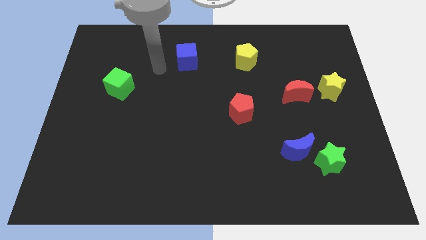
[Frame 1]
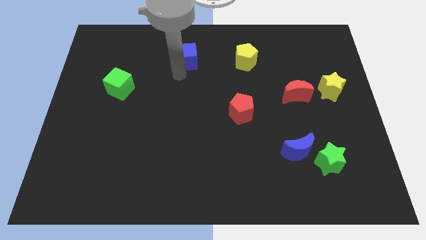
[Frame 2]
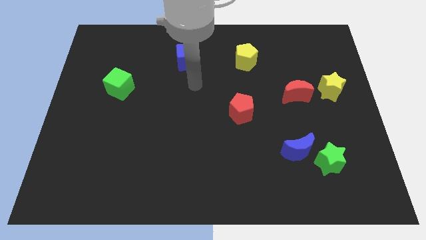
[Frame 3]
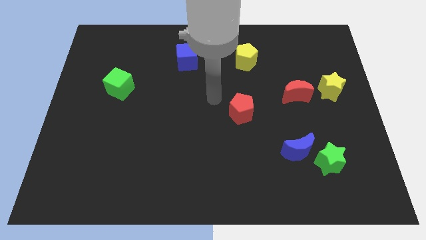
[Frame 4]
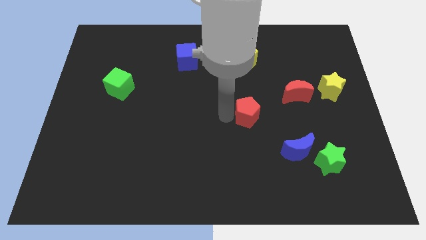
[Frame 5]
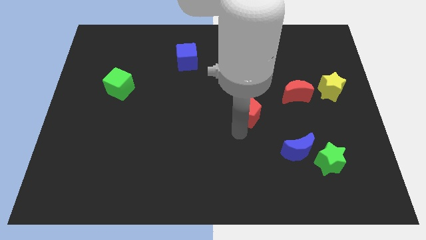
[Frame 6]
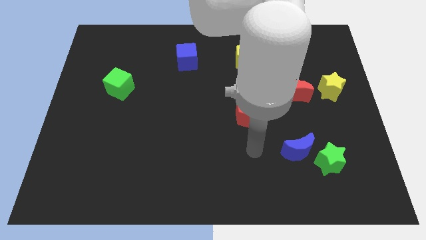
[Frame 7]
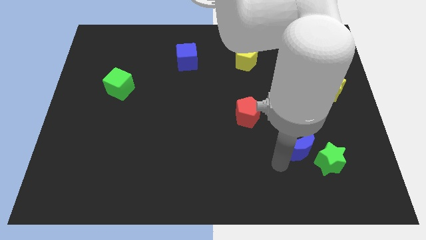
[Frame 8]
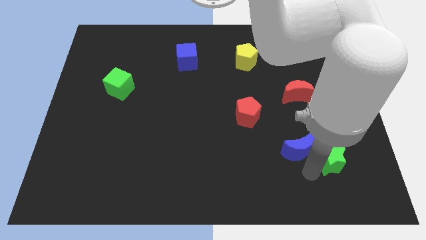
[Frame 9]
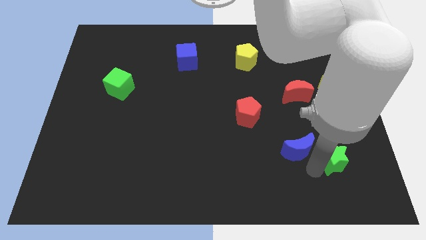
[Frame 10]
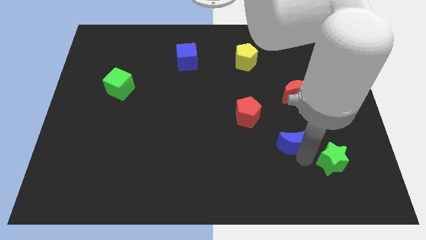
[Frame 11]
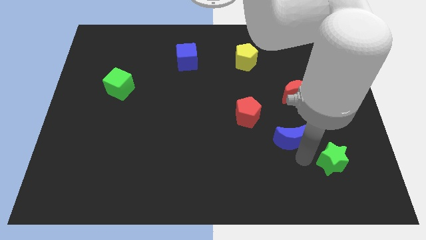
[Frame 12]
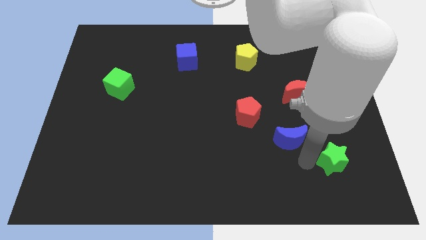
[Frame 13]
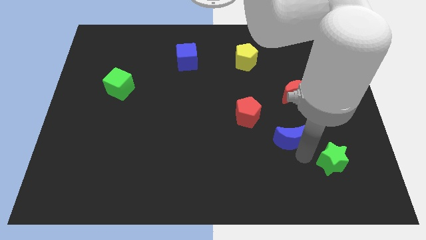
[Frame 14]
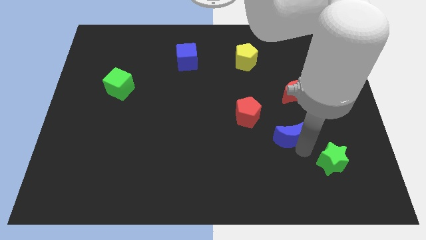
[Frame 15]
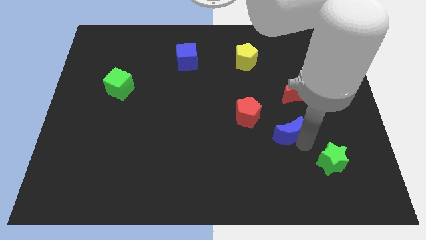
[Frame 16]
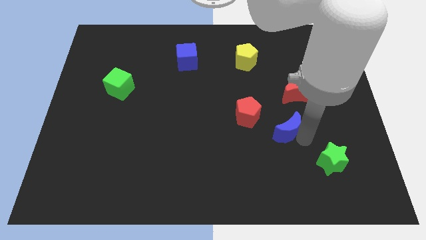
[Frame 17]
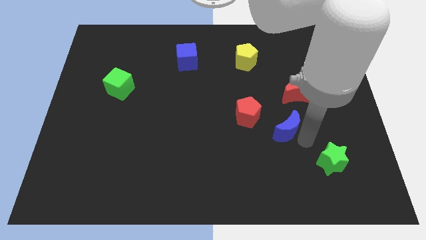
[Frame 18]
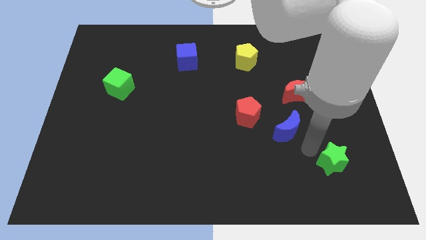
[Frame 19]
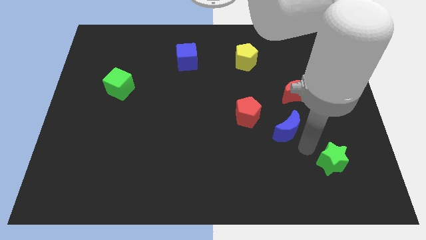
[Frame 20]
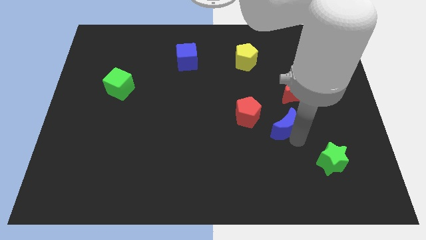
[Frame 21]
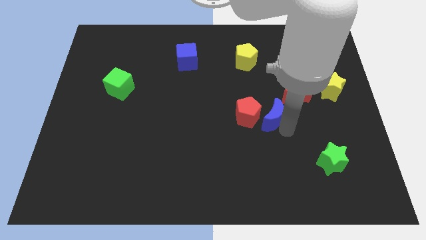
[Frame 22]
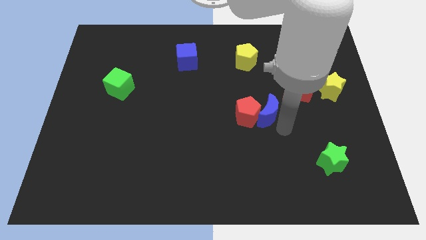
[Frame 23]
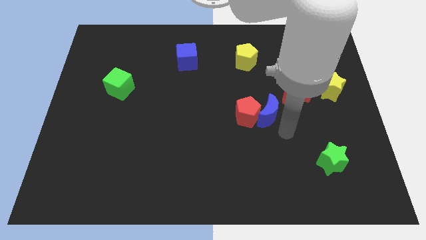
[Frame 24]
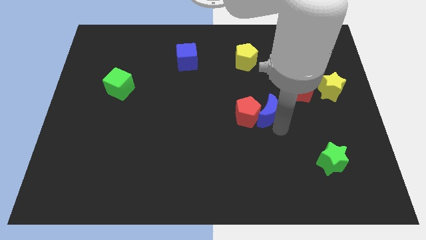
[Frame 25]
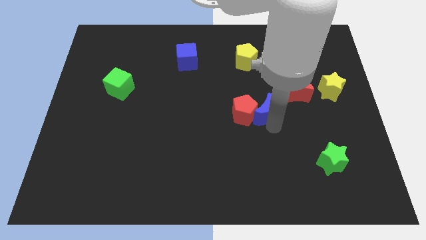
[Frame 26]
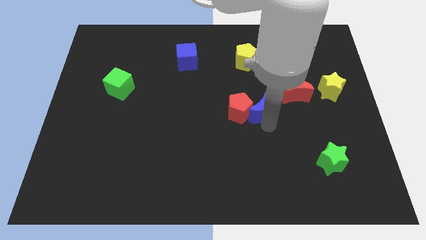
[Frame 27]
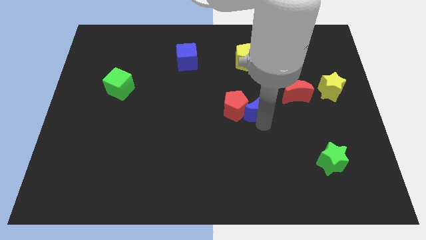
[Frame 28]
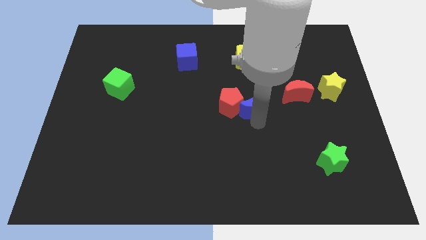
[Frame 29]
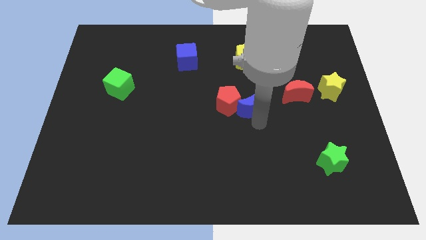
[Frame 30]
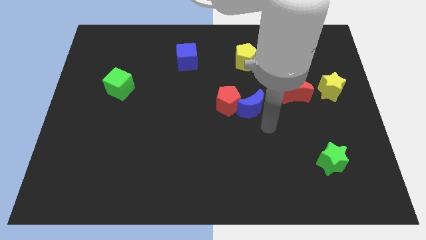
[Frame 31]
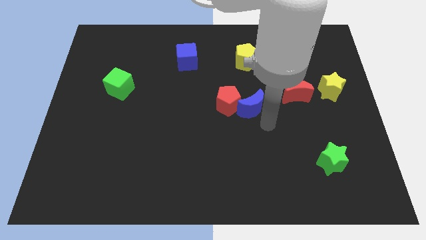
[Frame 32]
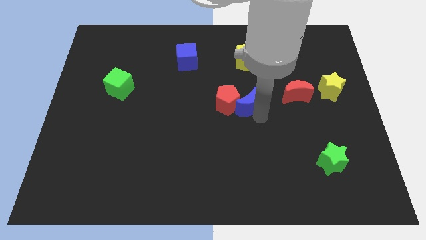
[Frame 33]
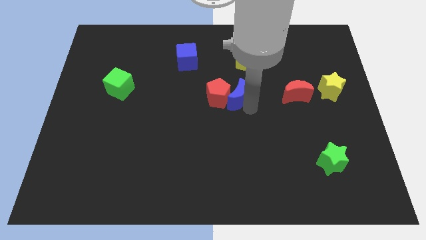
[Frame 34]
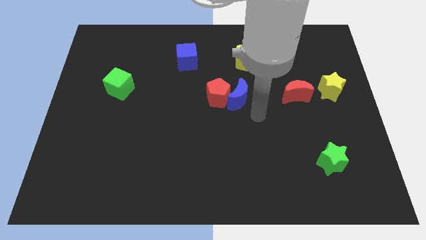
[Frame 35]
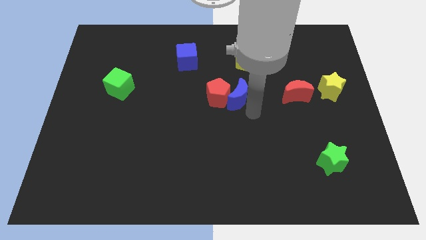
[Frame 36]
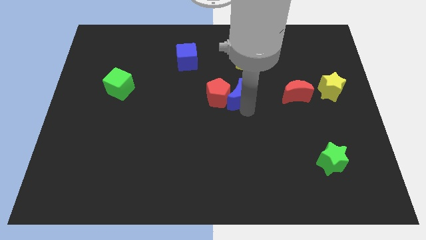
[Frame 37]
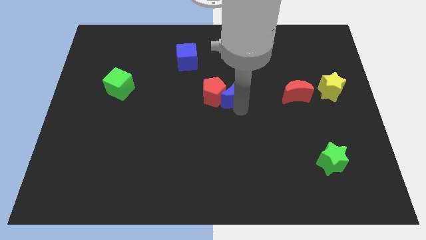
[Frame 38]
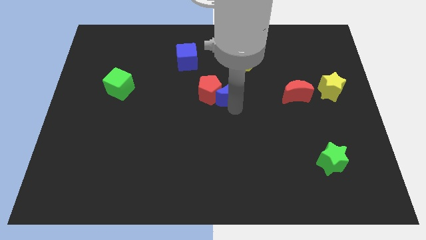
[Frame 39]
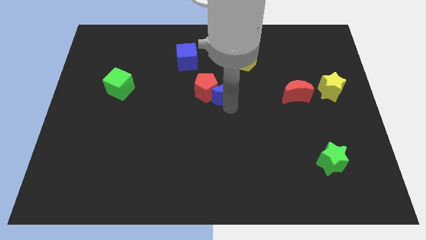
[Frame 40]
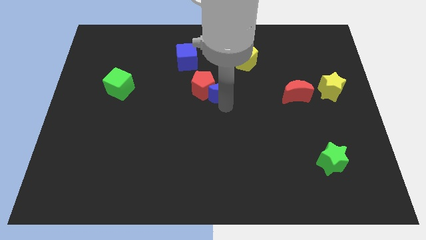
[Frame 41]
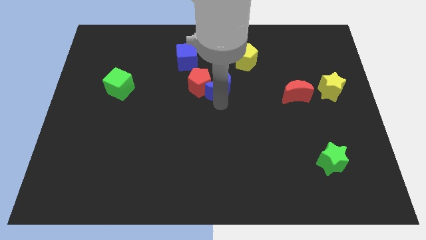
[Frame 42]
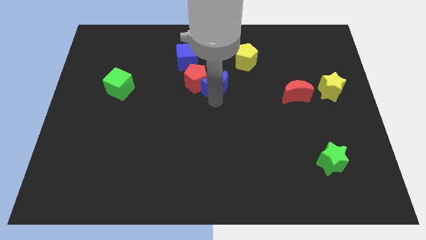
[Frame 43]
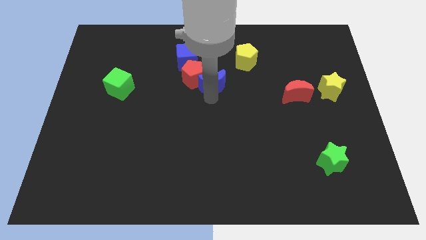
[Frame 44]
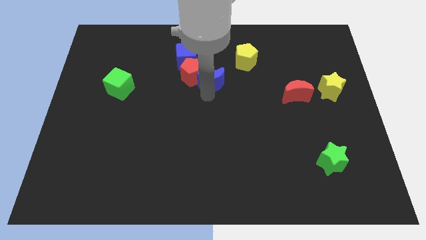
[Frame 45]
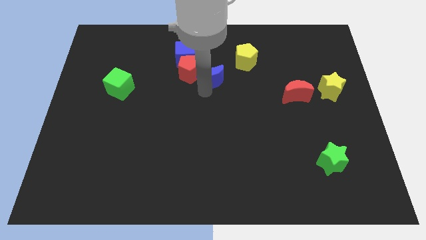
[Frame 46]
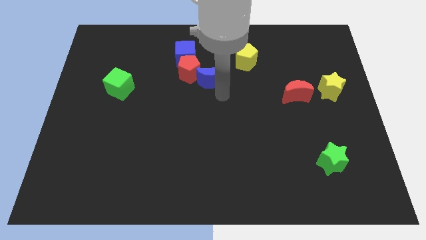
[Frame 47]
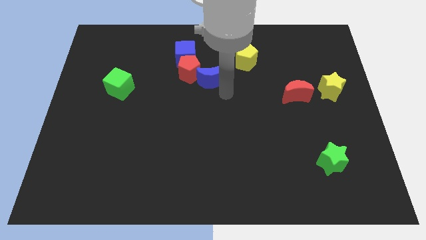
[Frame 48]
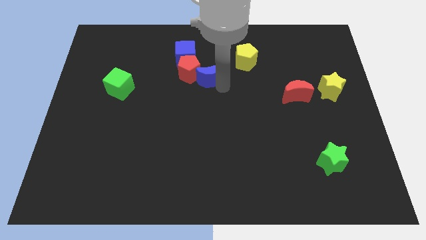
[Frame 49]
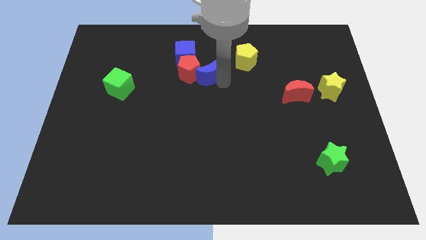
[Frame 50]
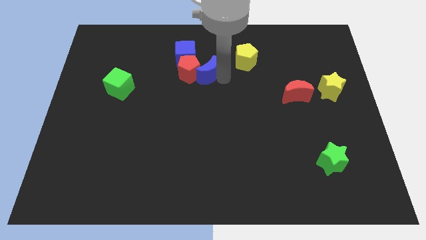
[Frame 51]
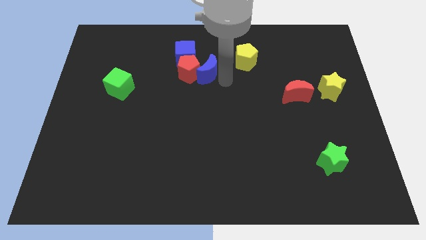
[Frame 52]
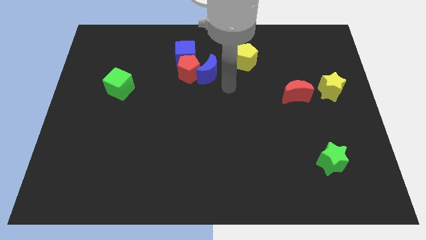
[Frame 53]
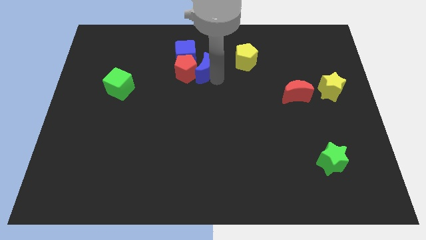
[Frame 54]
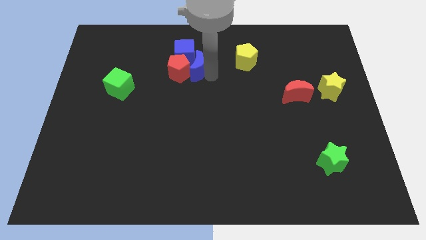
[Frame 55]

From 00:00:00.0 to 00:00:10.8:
put the blue moon to the blue cube

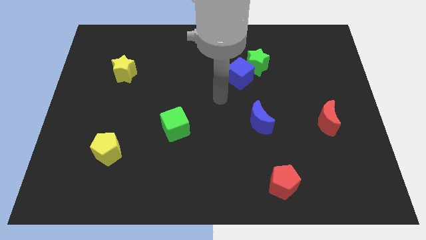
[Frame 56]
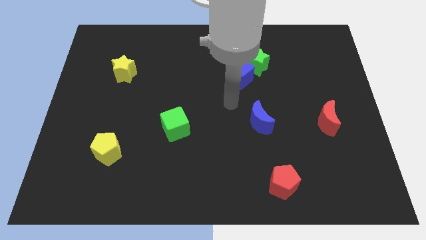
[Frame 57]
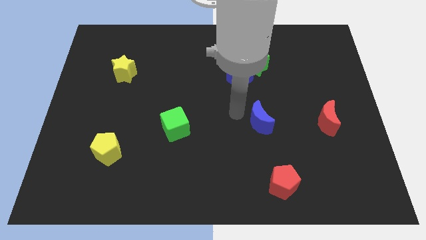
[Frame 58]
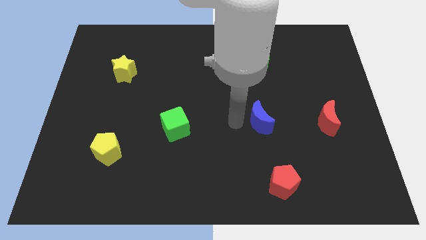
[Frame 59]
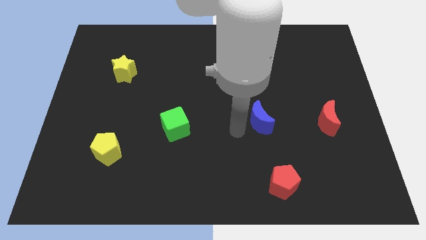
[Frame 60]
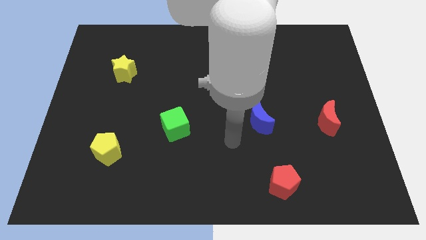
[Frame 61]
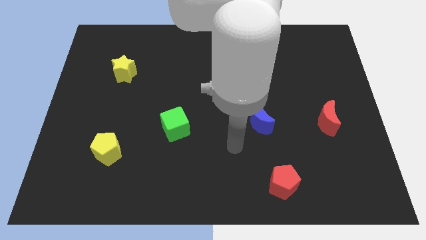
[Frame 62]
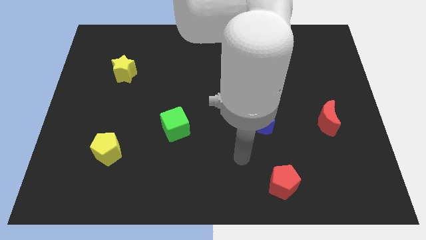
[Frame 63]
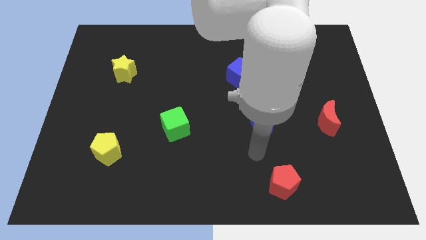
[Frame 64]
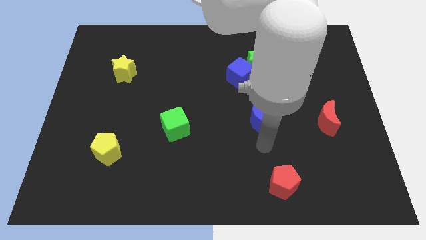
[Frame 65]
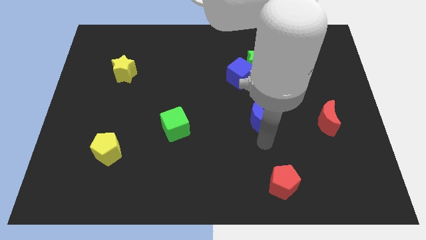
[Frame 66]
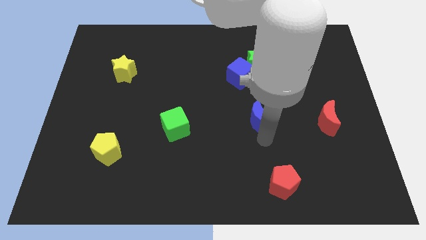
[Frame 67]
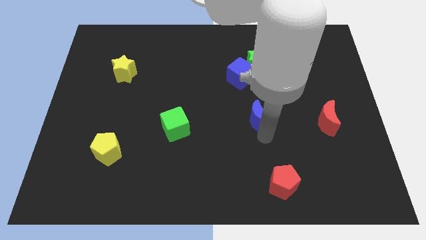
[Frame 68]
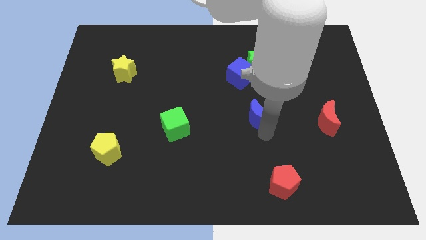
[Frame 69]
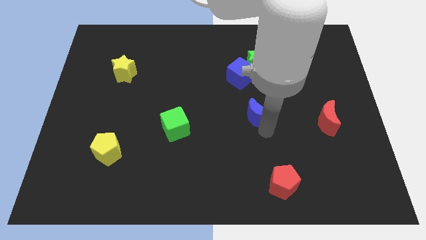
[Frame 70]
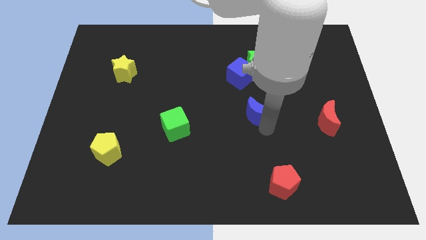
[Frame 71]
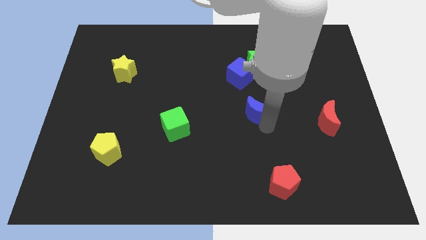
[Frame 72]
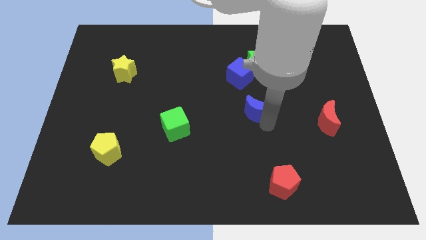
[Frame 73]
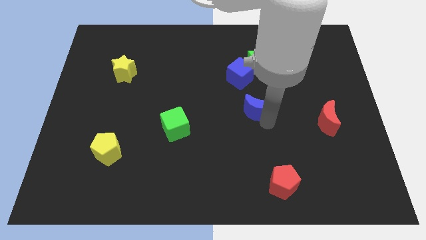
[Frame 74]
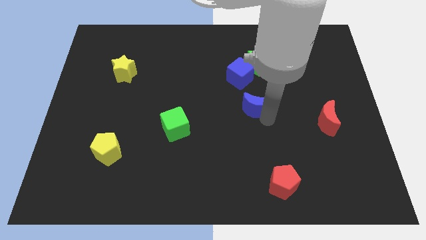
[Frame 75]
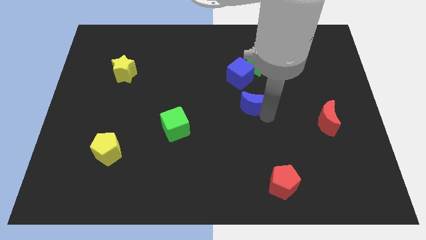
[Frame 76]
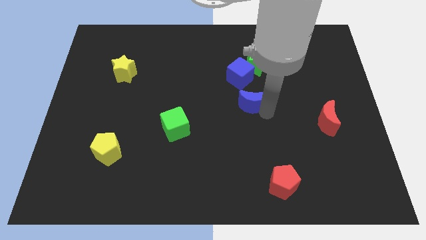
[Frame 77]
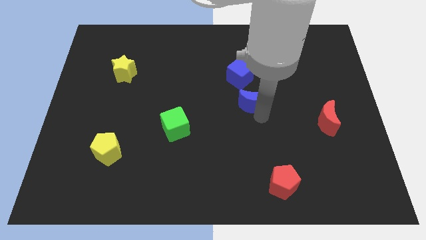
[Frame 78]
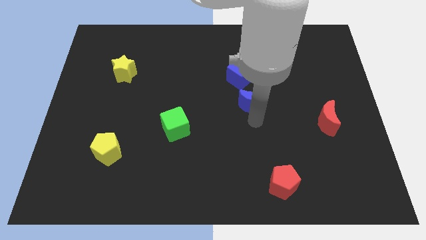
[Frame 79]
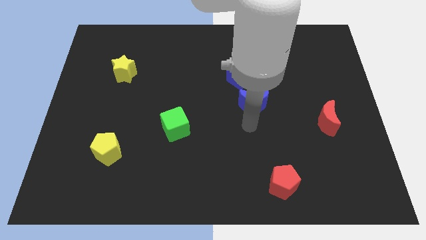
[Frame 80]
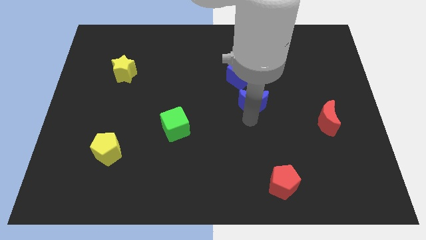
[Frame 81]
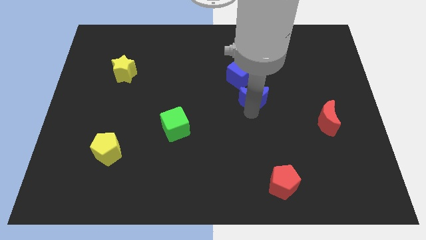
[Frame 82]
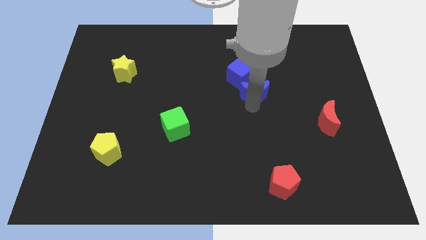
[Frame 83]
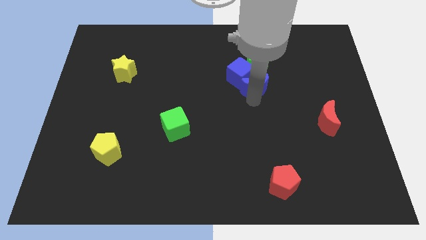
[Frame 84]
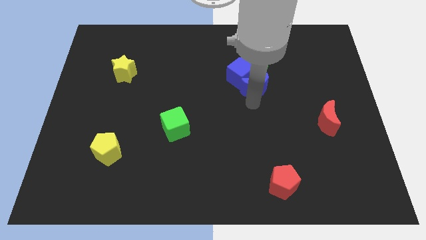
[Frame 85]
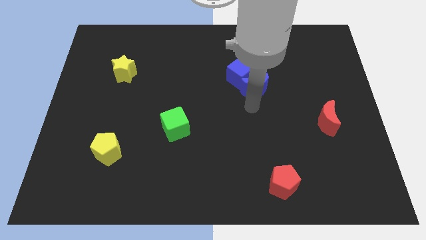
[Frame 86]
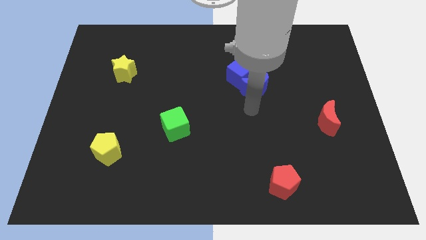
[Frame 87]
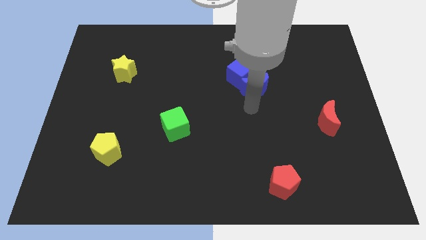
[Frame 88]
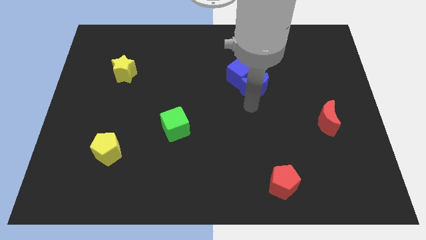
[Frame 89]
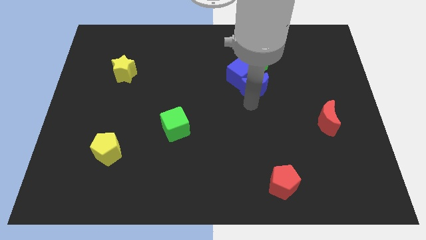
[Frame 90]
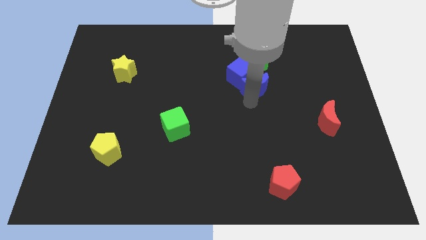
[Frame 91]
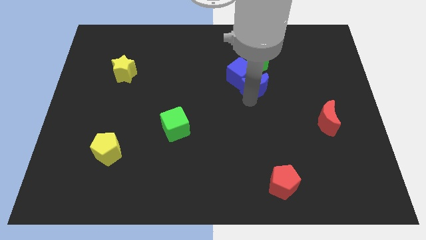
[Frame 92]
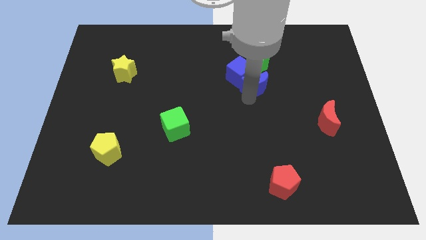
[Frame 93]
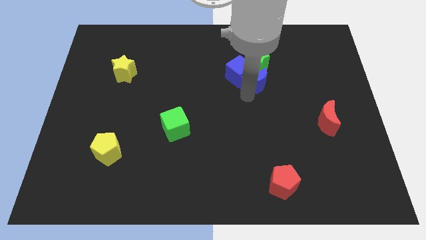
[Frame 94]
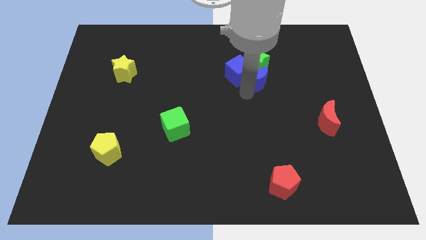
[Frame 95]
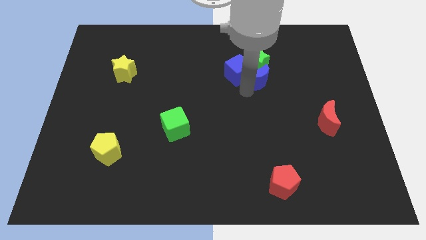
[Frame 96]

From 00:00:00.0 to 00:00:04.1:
push the blue moon next to the green star
